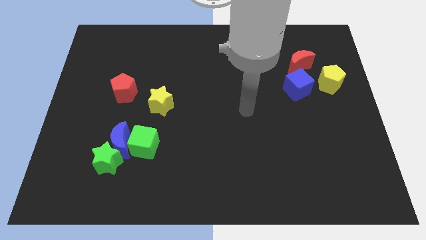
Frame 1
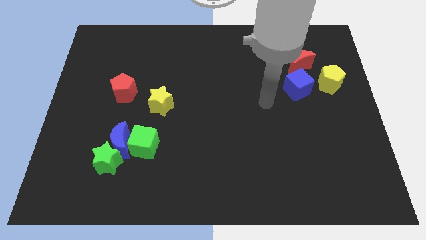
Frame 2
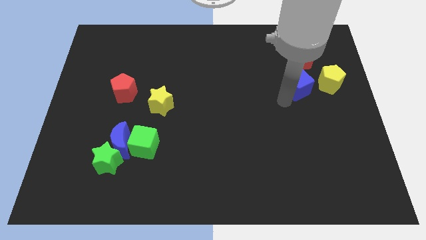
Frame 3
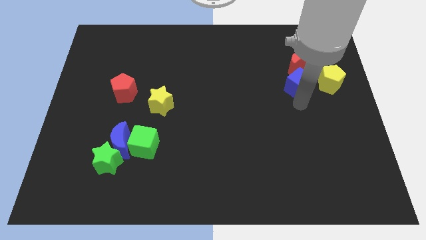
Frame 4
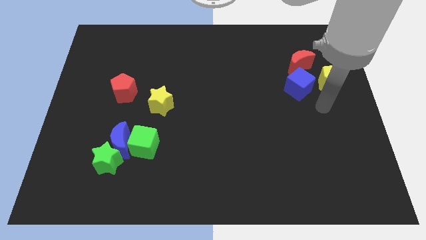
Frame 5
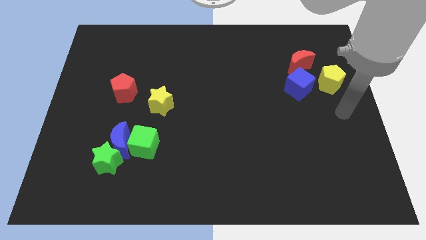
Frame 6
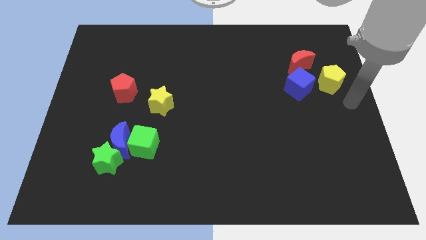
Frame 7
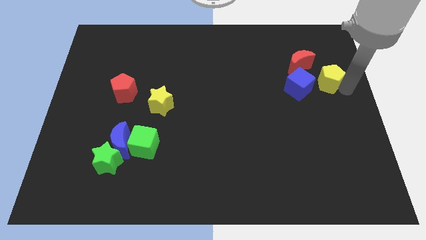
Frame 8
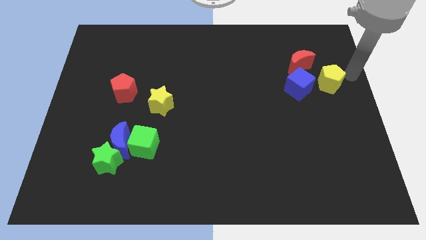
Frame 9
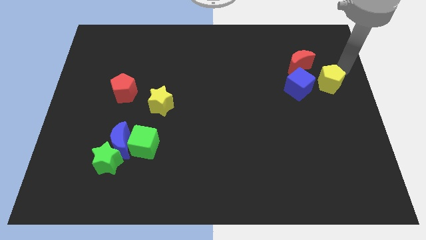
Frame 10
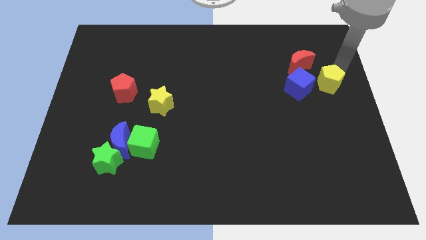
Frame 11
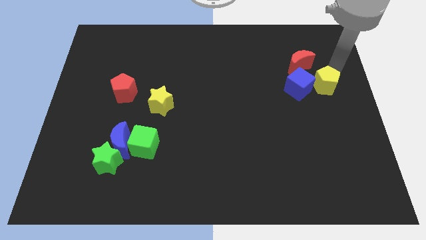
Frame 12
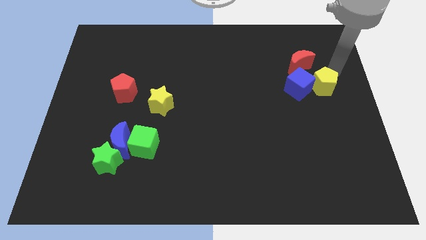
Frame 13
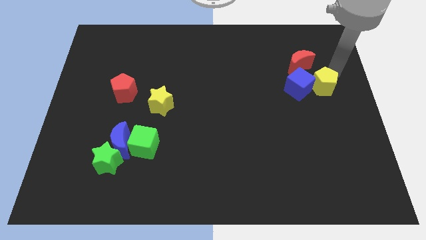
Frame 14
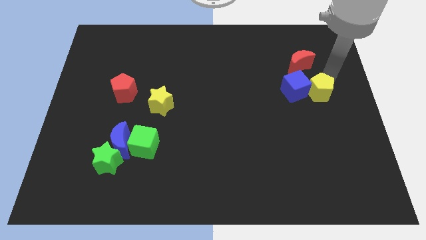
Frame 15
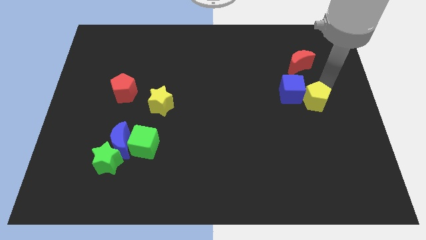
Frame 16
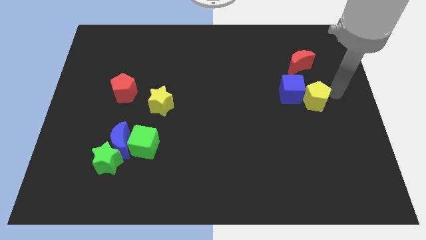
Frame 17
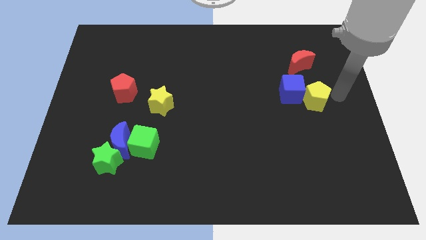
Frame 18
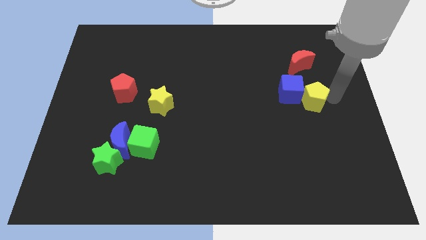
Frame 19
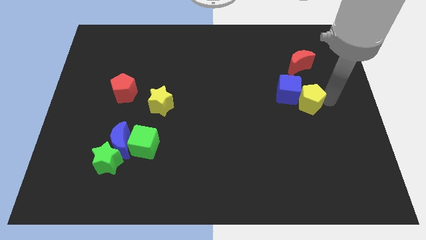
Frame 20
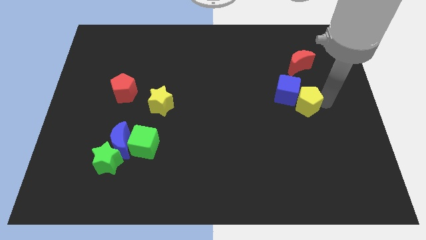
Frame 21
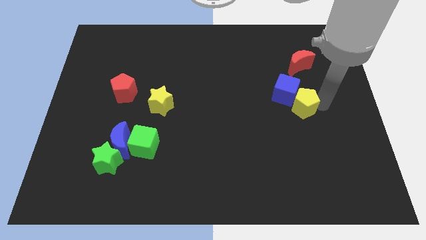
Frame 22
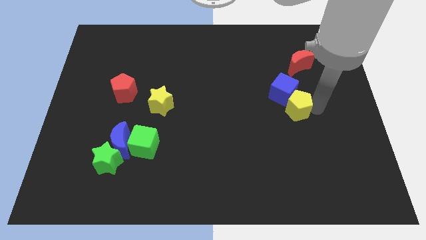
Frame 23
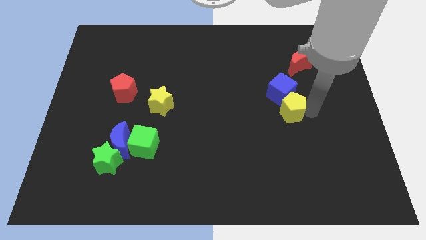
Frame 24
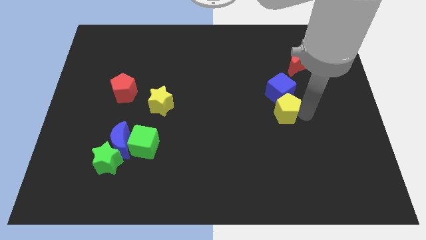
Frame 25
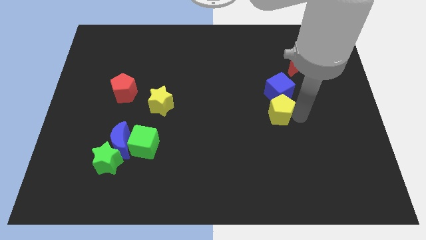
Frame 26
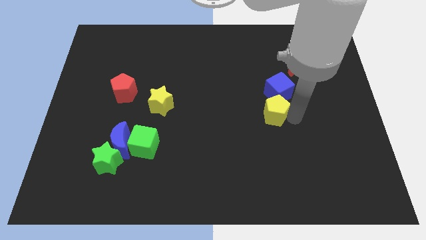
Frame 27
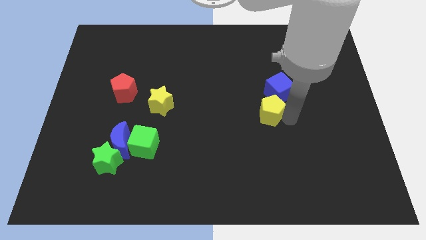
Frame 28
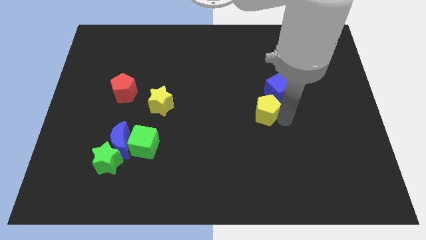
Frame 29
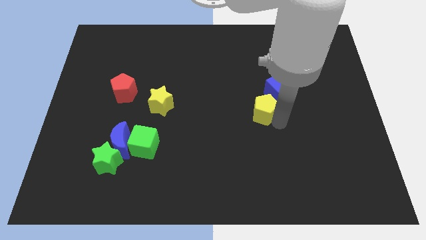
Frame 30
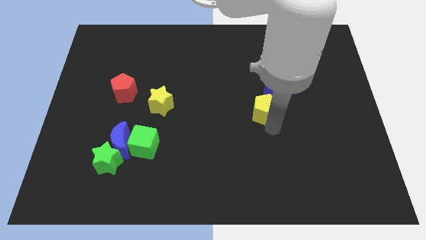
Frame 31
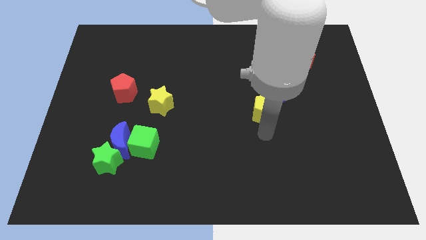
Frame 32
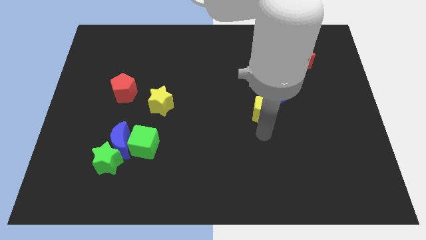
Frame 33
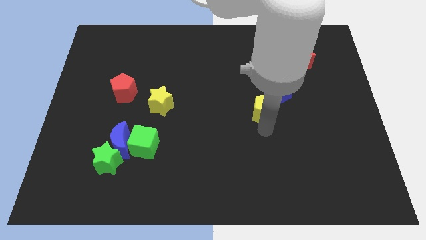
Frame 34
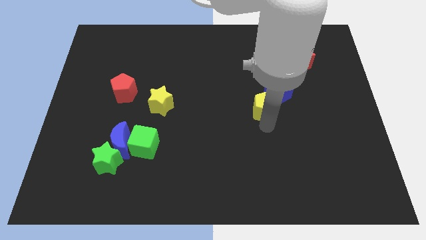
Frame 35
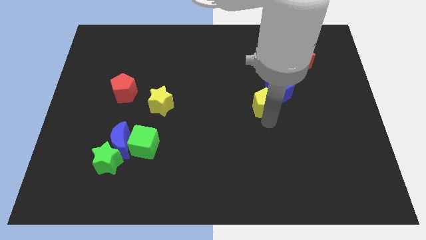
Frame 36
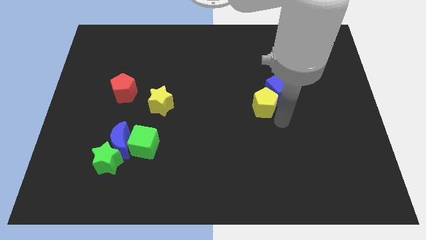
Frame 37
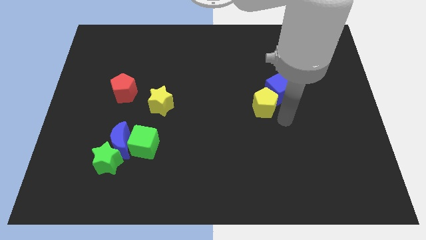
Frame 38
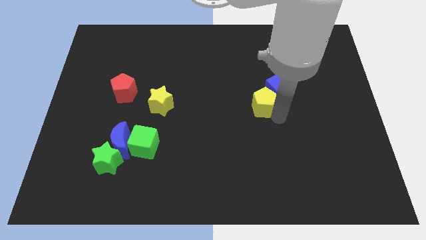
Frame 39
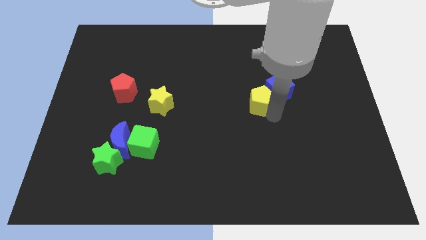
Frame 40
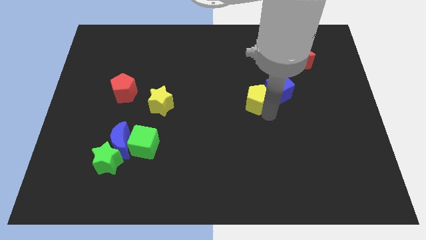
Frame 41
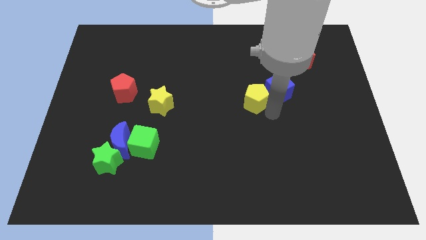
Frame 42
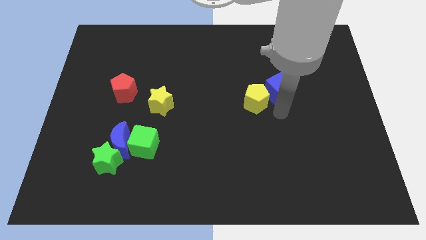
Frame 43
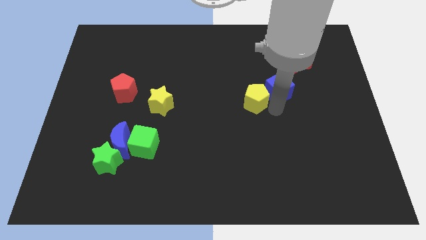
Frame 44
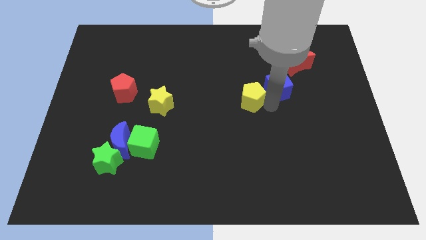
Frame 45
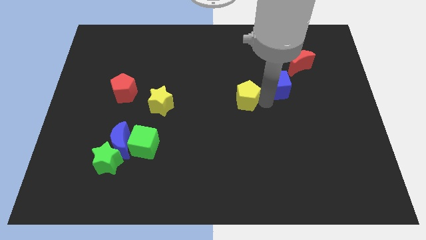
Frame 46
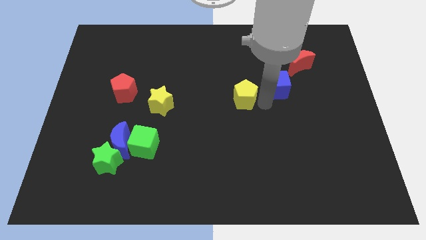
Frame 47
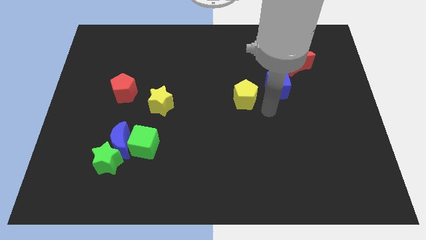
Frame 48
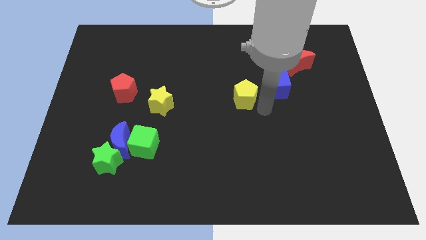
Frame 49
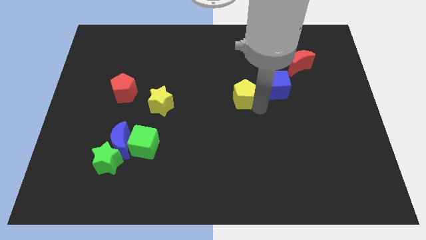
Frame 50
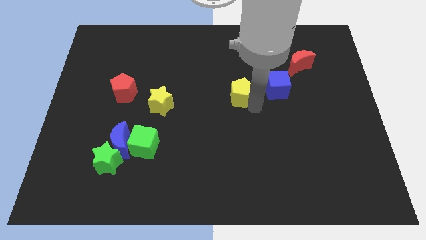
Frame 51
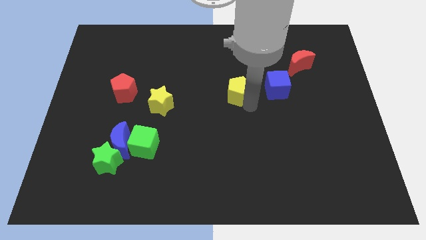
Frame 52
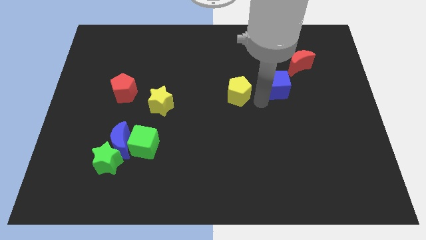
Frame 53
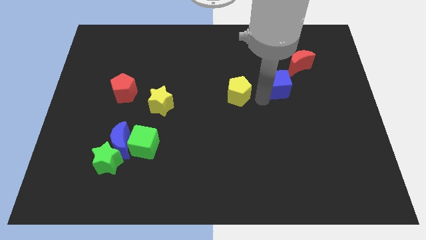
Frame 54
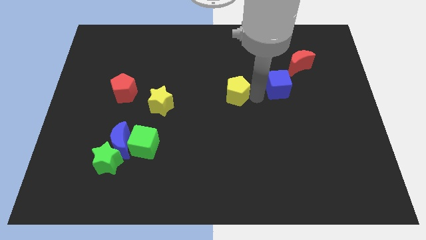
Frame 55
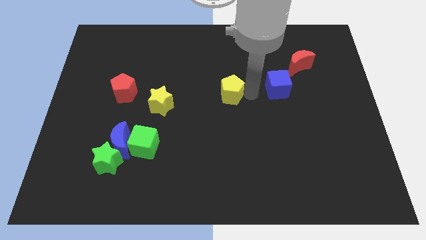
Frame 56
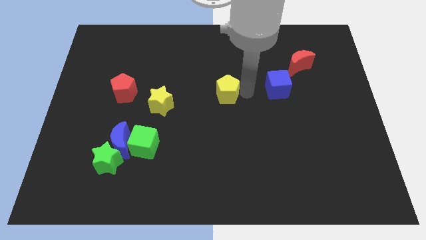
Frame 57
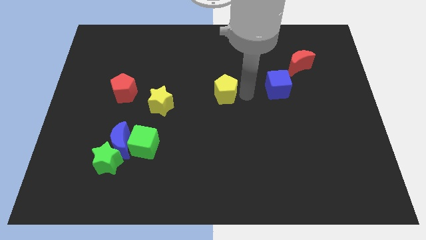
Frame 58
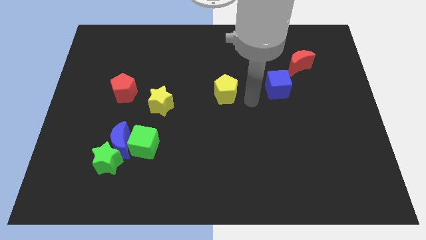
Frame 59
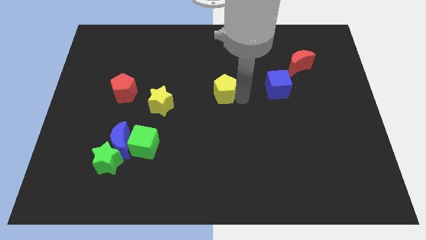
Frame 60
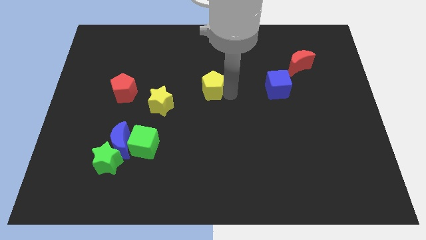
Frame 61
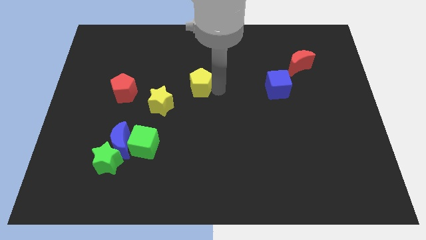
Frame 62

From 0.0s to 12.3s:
move the yellow pentagon to the top right of the yellow star

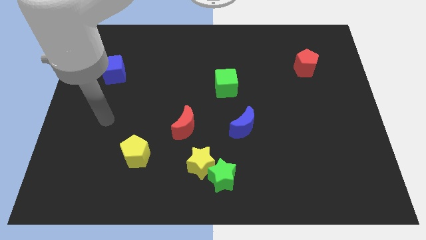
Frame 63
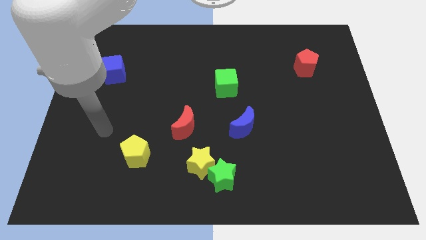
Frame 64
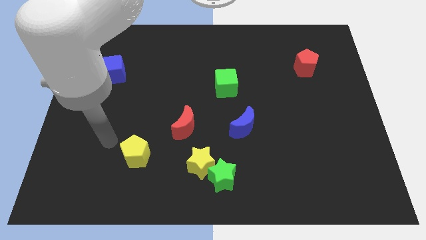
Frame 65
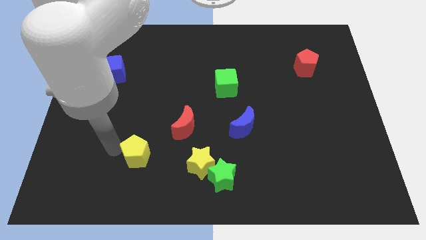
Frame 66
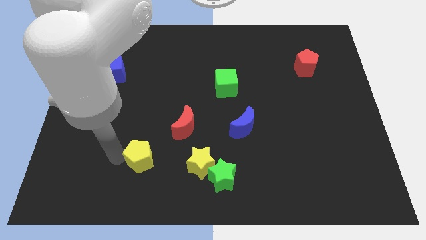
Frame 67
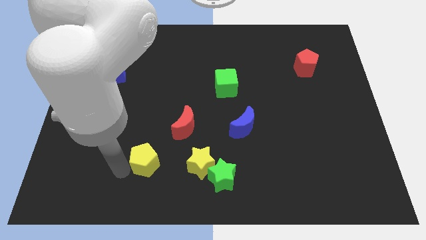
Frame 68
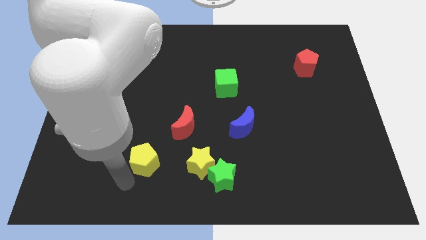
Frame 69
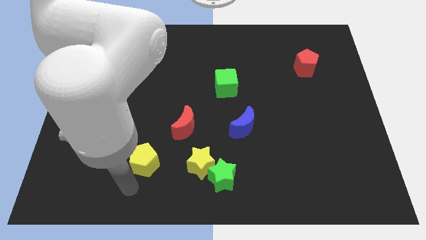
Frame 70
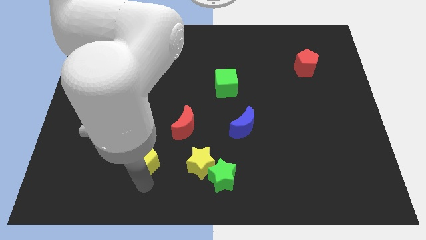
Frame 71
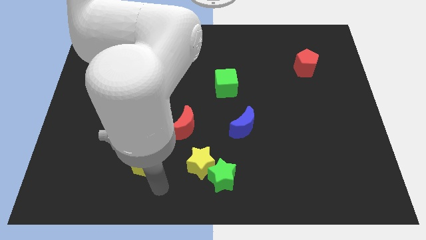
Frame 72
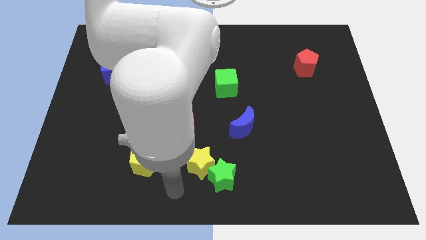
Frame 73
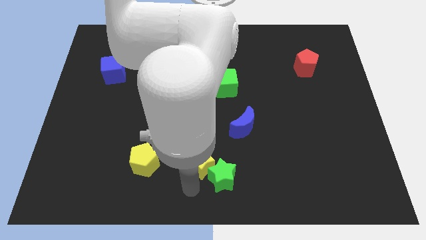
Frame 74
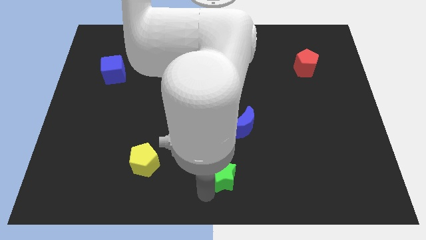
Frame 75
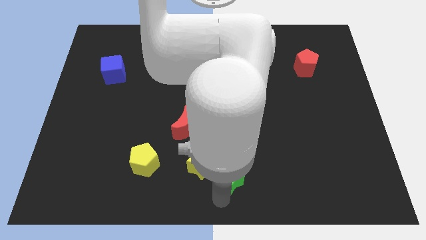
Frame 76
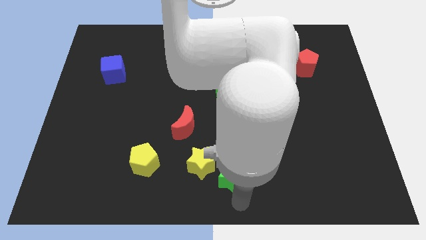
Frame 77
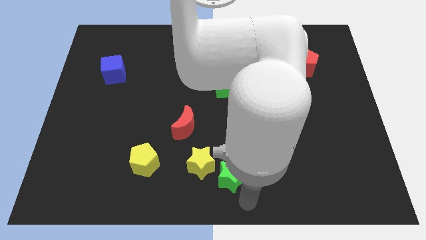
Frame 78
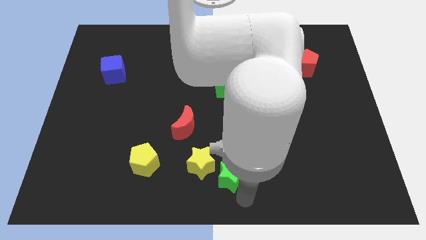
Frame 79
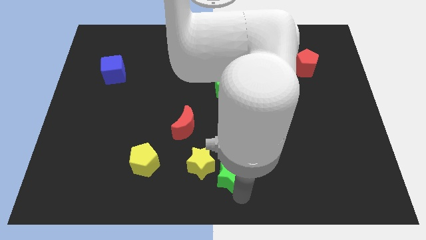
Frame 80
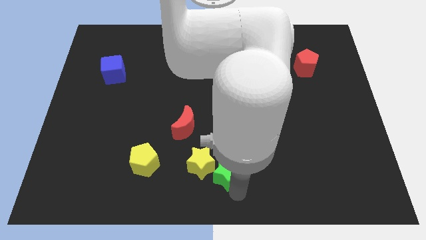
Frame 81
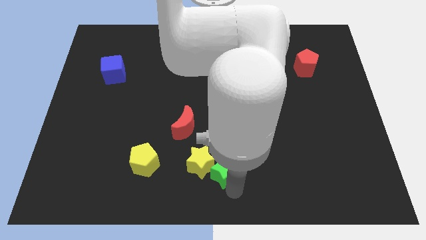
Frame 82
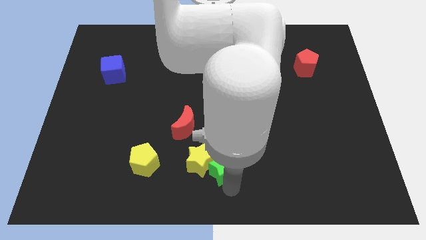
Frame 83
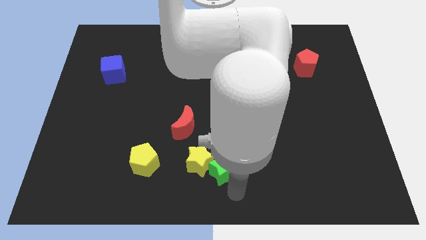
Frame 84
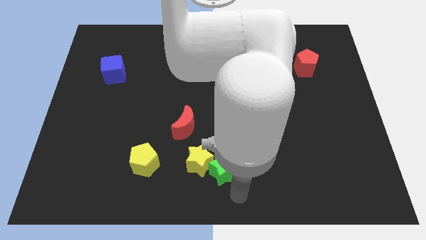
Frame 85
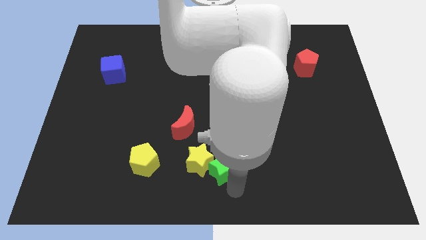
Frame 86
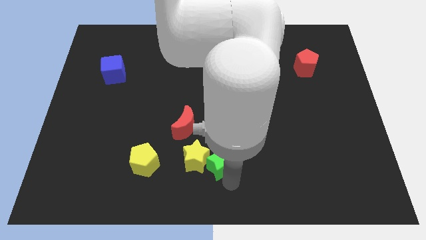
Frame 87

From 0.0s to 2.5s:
slide the green star diagonally down and to the right of the red moon
